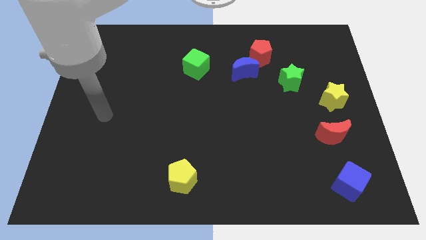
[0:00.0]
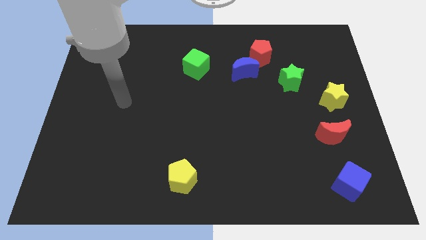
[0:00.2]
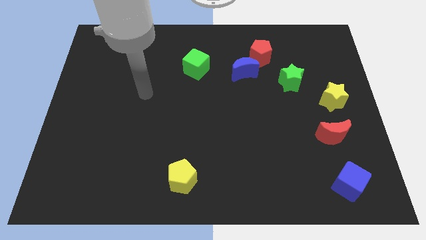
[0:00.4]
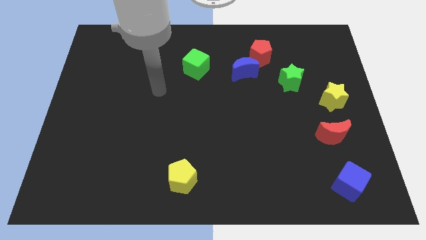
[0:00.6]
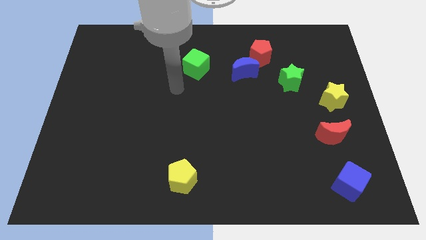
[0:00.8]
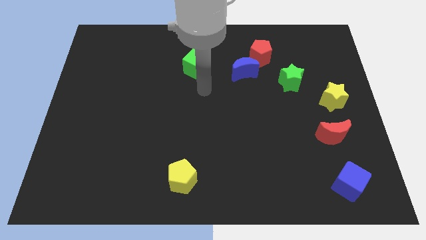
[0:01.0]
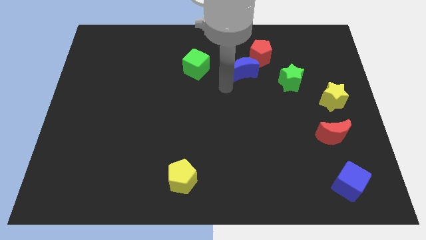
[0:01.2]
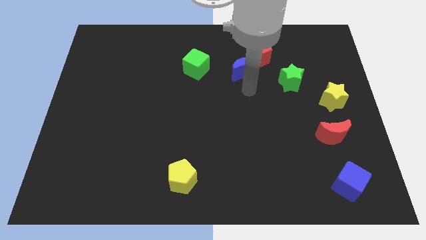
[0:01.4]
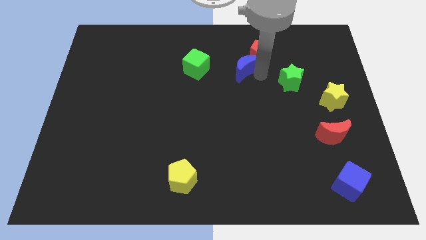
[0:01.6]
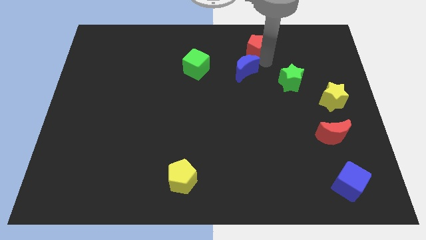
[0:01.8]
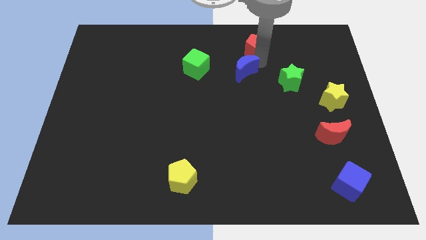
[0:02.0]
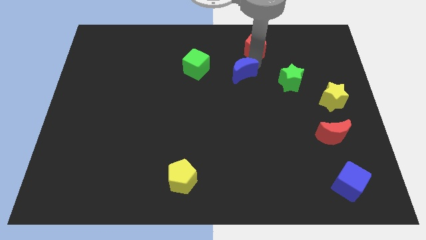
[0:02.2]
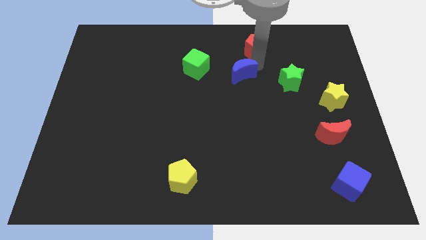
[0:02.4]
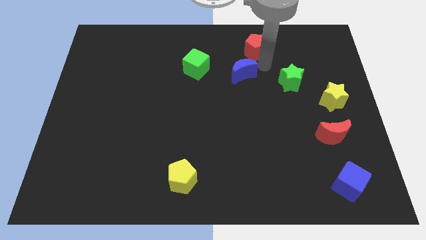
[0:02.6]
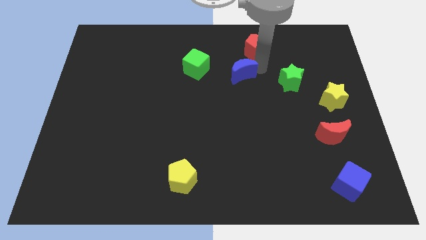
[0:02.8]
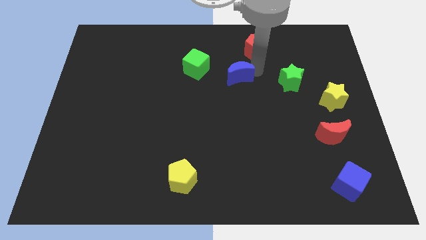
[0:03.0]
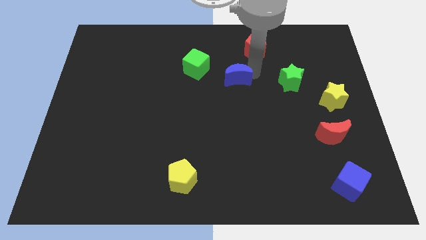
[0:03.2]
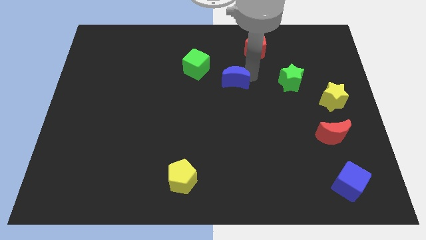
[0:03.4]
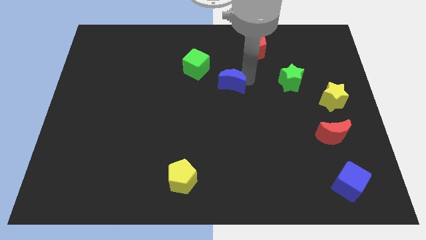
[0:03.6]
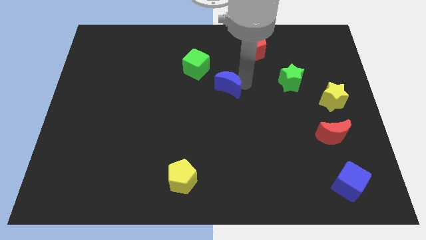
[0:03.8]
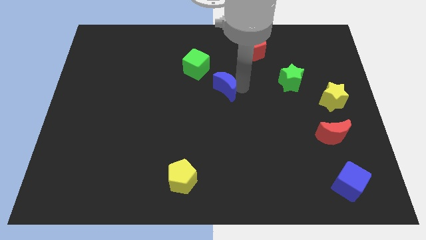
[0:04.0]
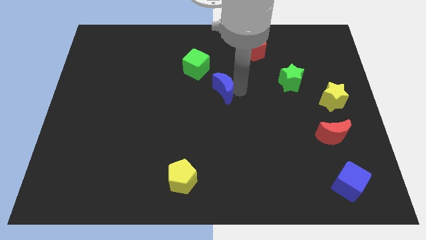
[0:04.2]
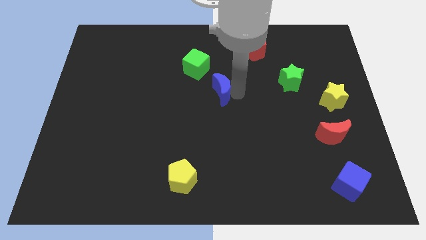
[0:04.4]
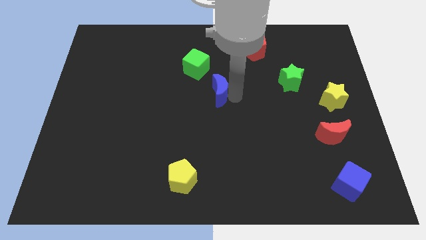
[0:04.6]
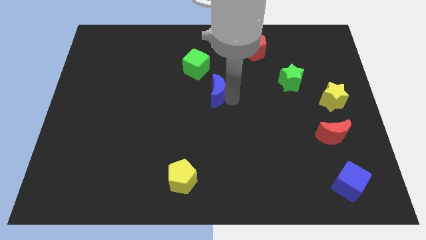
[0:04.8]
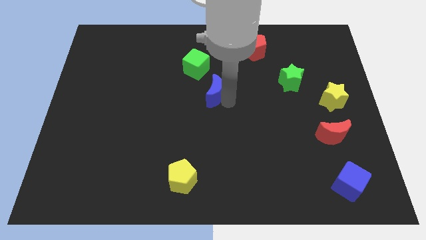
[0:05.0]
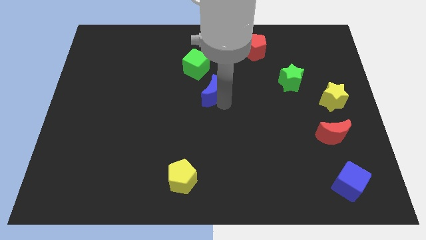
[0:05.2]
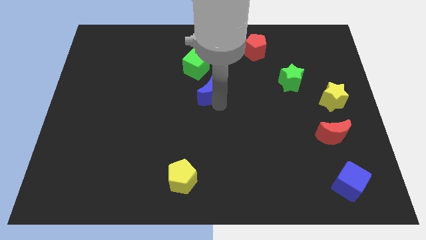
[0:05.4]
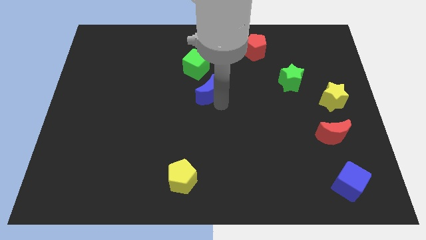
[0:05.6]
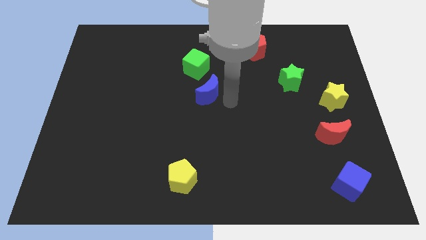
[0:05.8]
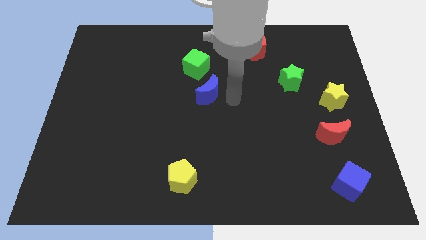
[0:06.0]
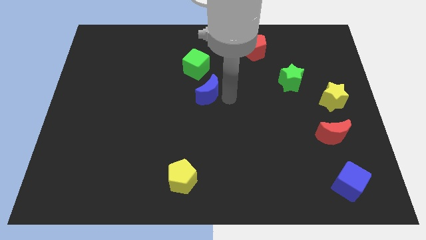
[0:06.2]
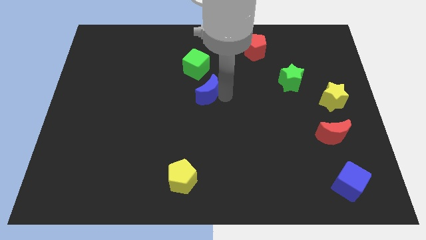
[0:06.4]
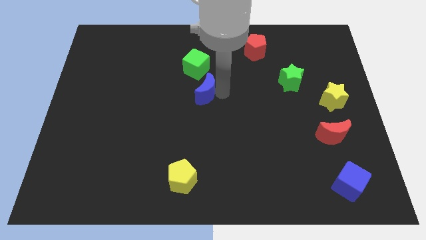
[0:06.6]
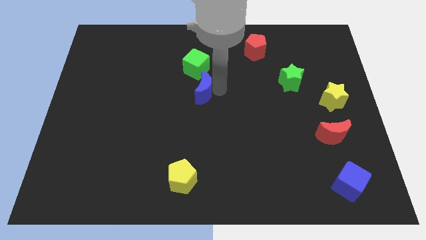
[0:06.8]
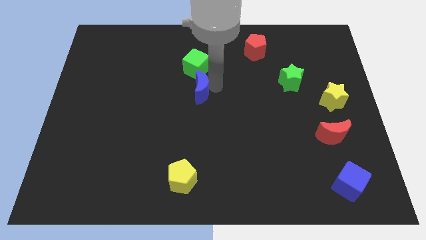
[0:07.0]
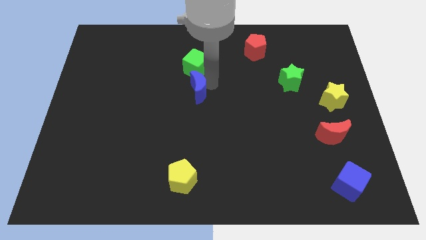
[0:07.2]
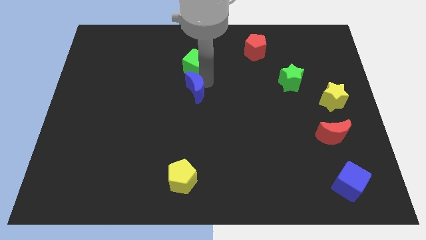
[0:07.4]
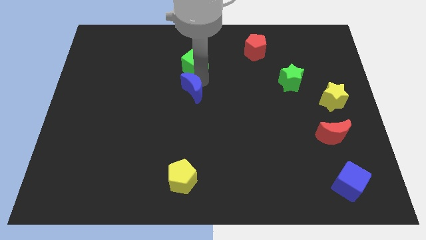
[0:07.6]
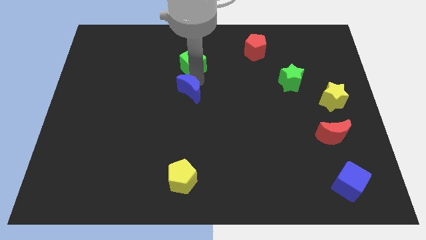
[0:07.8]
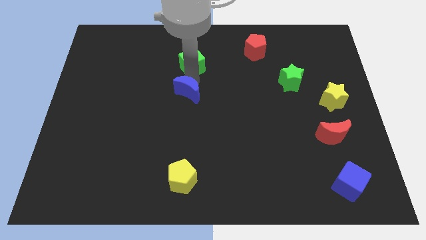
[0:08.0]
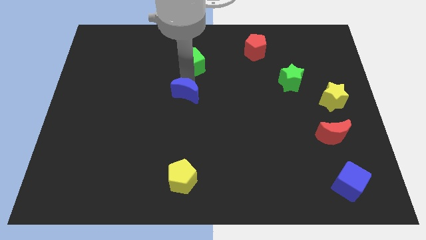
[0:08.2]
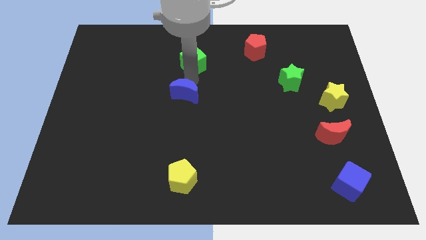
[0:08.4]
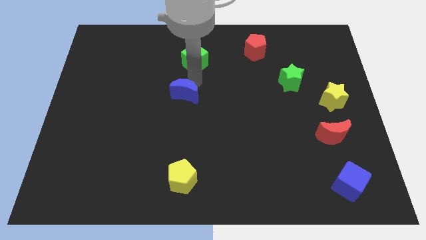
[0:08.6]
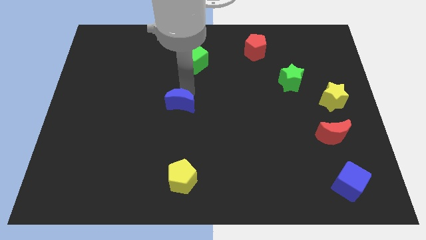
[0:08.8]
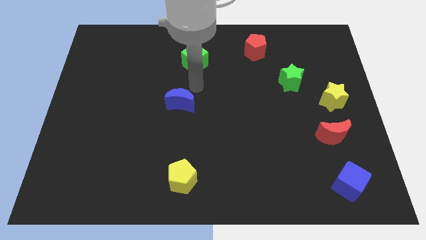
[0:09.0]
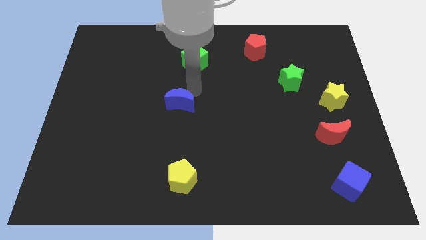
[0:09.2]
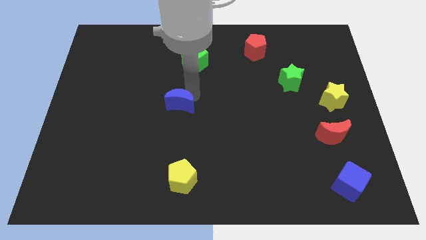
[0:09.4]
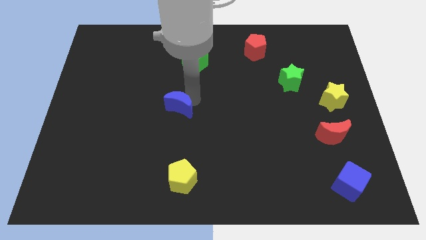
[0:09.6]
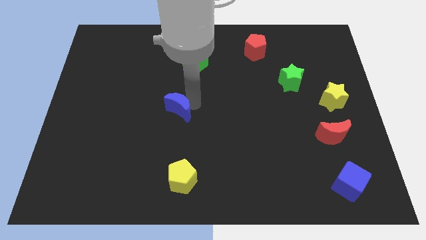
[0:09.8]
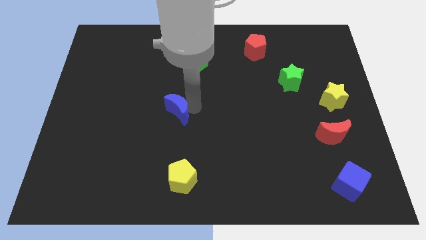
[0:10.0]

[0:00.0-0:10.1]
push the blue moon down and then left

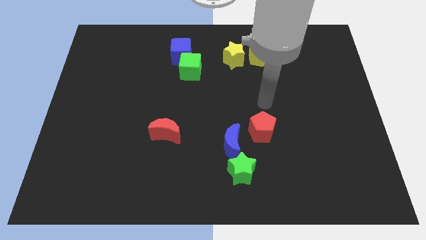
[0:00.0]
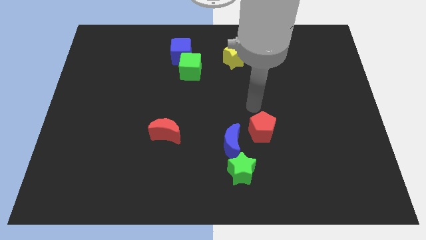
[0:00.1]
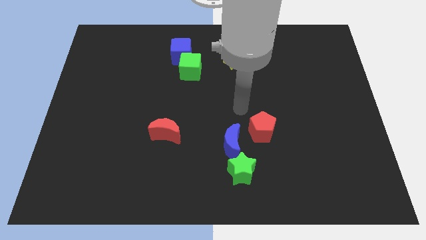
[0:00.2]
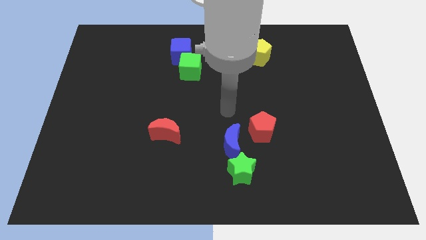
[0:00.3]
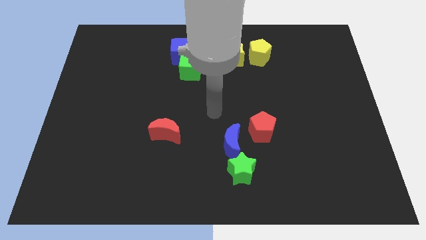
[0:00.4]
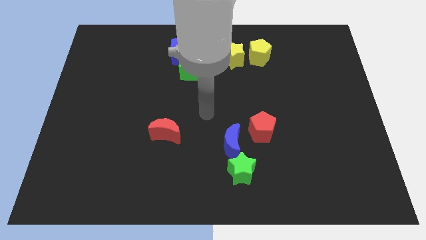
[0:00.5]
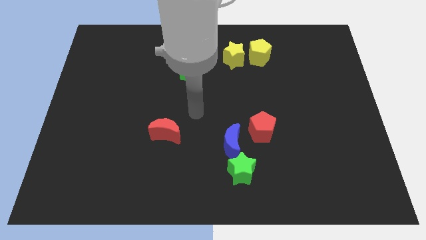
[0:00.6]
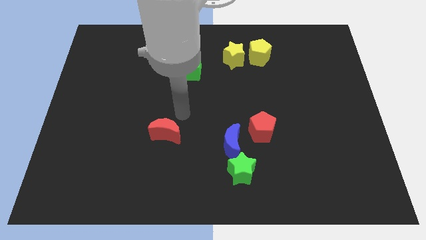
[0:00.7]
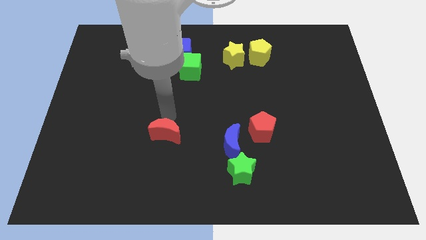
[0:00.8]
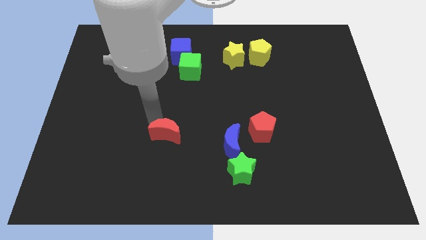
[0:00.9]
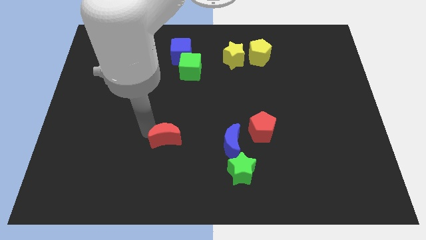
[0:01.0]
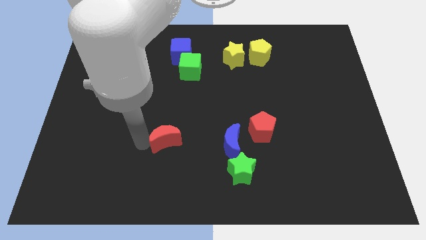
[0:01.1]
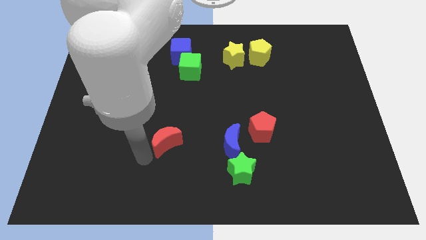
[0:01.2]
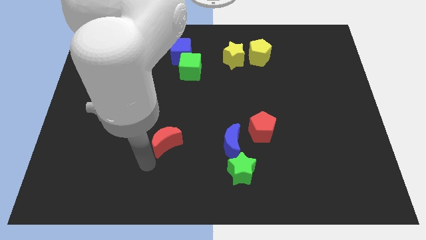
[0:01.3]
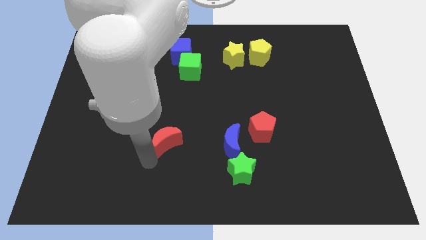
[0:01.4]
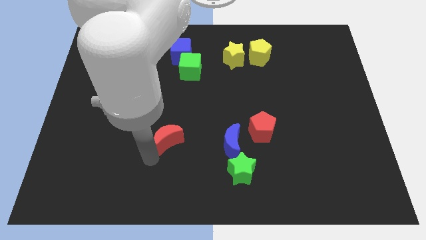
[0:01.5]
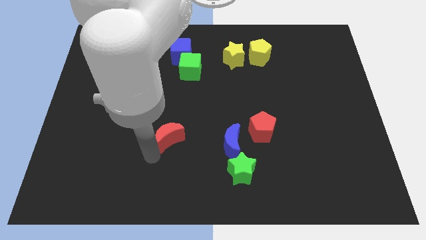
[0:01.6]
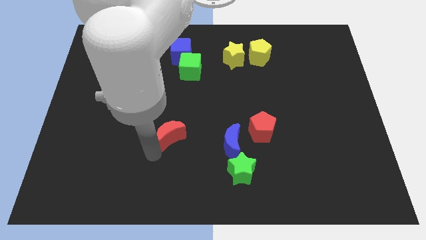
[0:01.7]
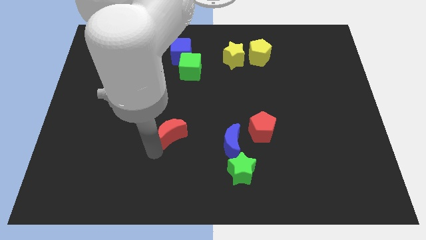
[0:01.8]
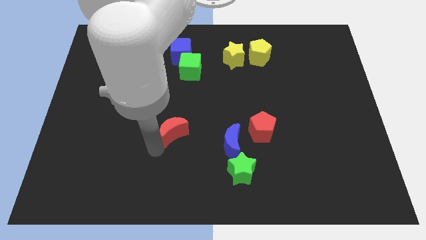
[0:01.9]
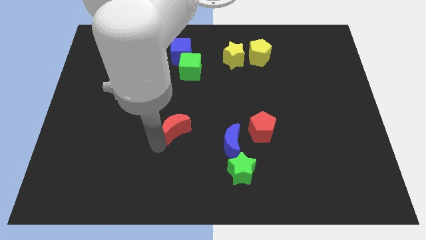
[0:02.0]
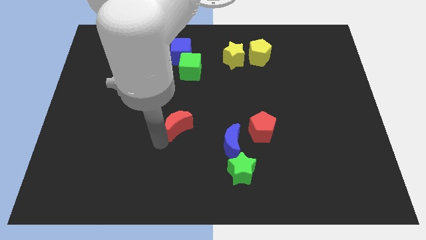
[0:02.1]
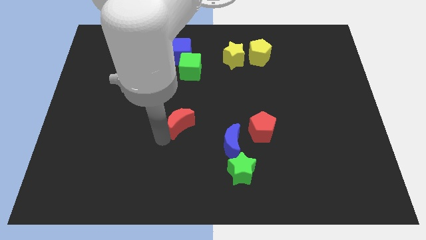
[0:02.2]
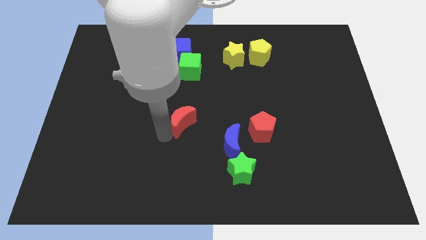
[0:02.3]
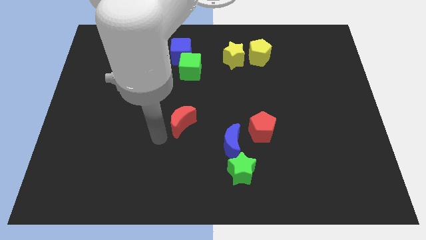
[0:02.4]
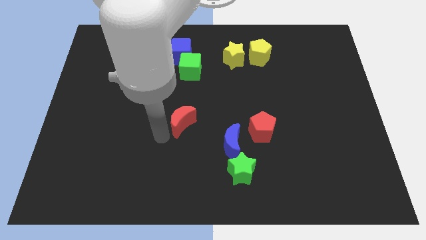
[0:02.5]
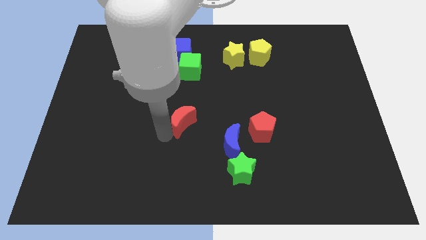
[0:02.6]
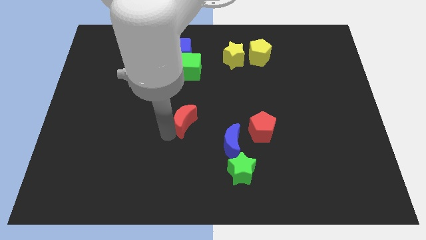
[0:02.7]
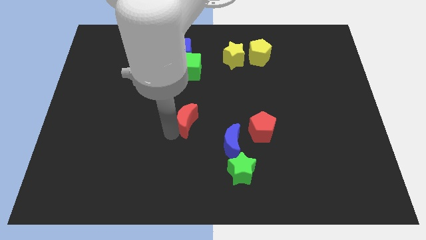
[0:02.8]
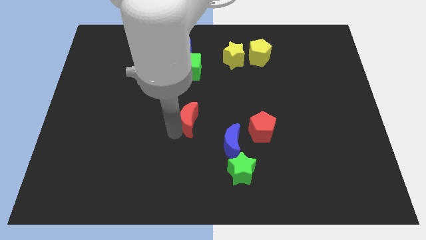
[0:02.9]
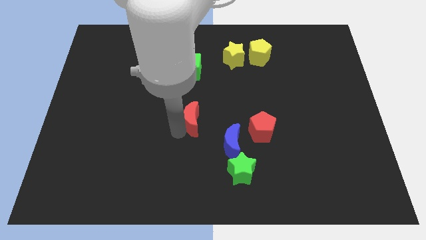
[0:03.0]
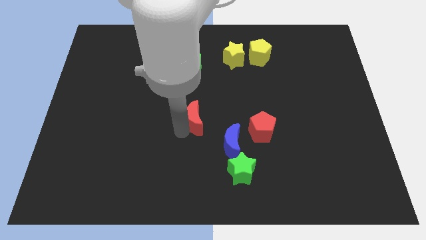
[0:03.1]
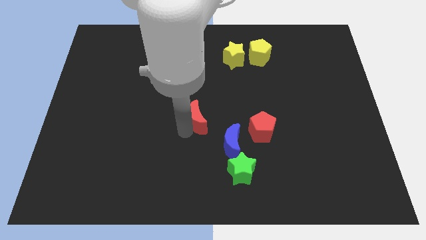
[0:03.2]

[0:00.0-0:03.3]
push the red moon up and then to the right a bit

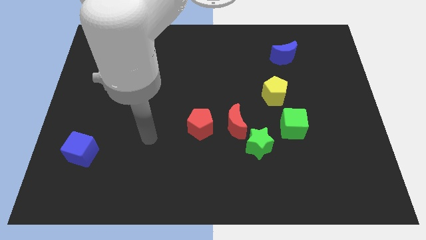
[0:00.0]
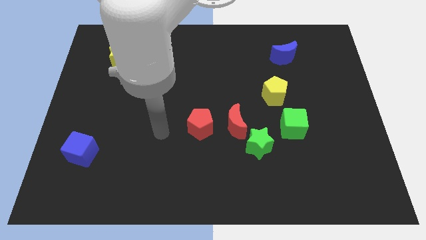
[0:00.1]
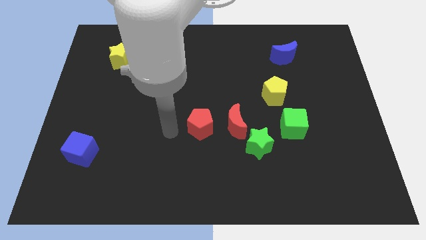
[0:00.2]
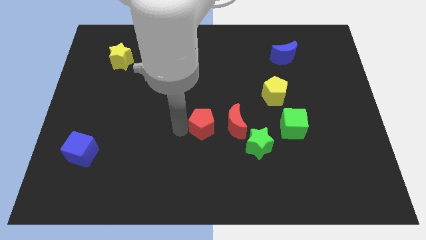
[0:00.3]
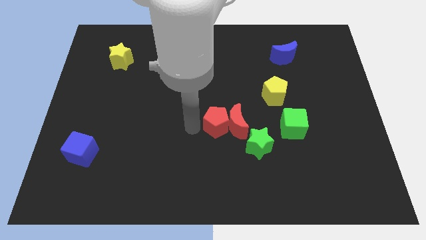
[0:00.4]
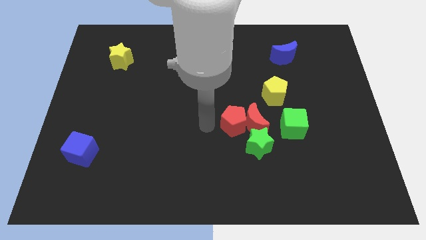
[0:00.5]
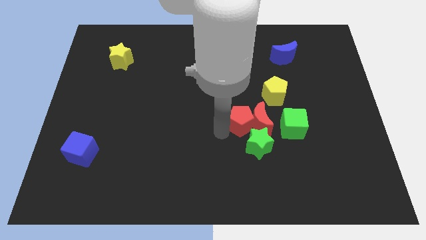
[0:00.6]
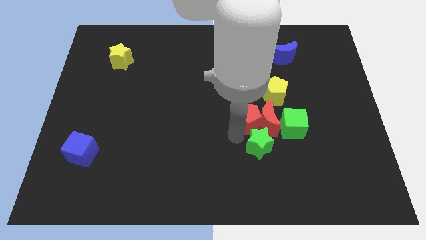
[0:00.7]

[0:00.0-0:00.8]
move the red moon a bit to the right
